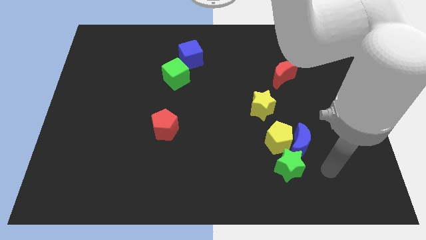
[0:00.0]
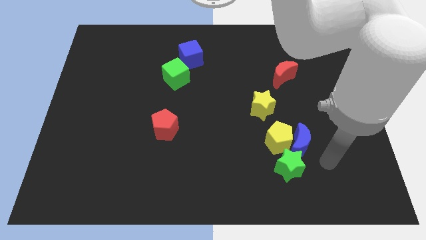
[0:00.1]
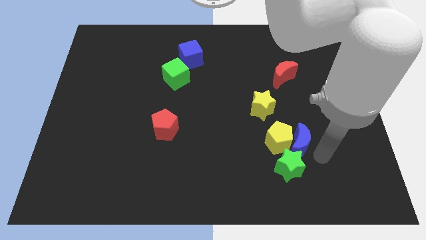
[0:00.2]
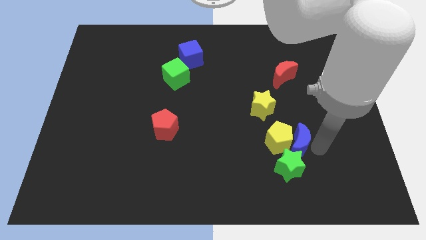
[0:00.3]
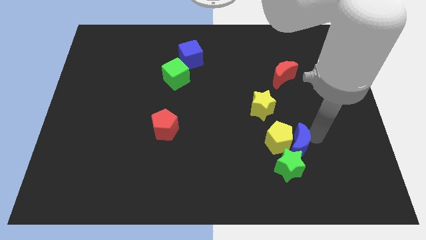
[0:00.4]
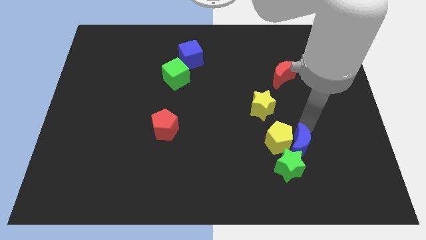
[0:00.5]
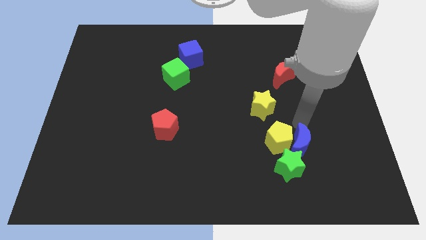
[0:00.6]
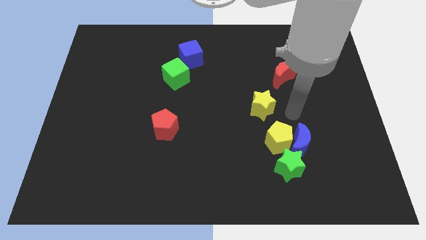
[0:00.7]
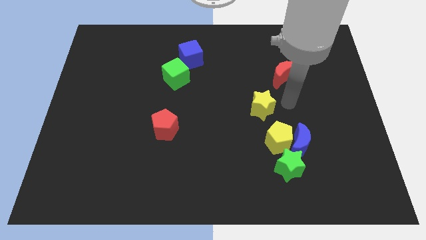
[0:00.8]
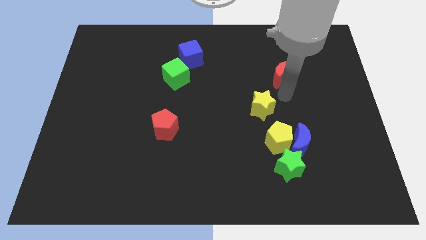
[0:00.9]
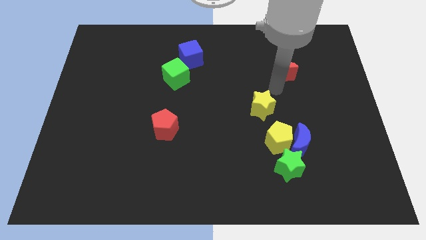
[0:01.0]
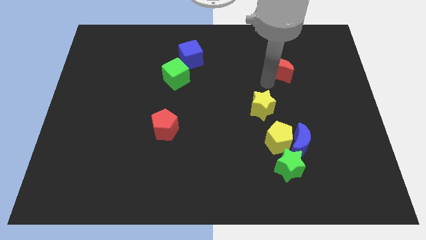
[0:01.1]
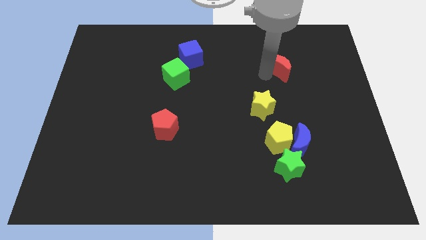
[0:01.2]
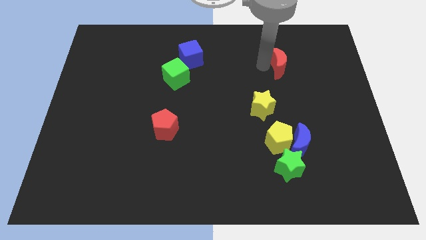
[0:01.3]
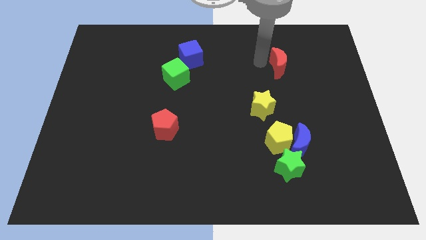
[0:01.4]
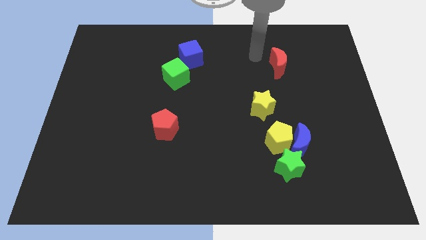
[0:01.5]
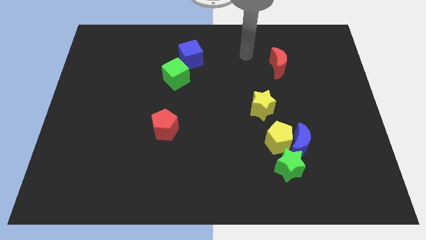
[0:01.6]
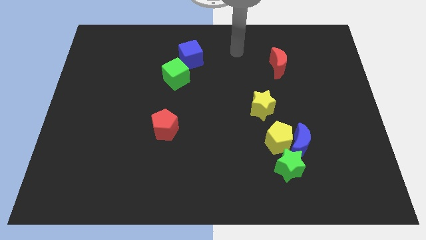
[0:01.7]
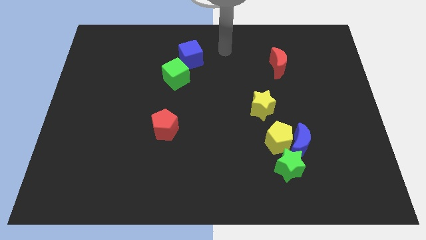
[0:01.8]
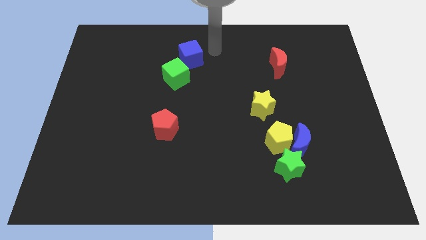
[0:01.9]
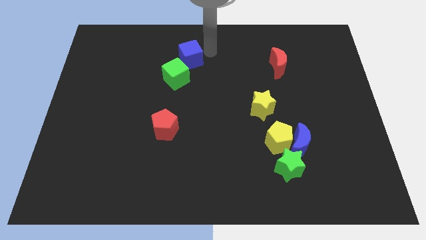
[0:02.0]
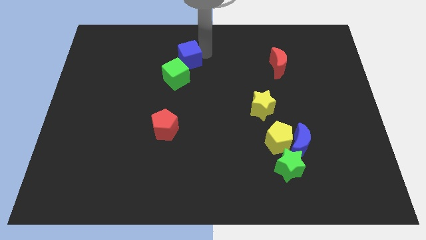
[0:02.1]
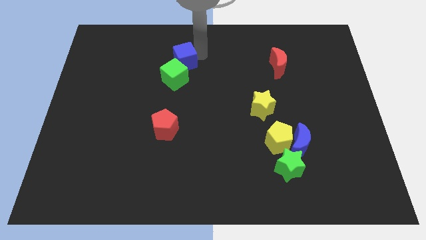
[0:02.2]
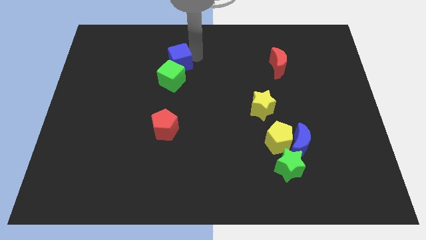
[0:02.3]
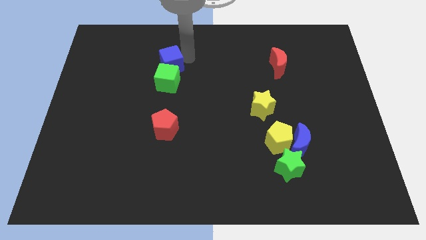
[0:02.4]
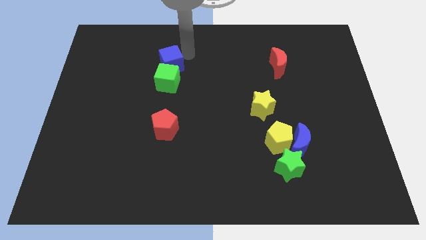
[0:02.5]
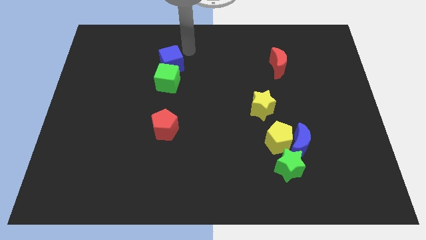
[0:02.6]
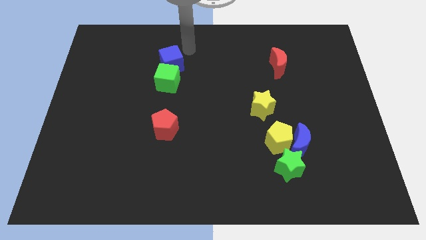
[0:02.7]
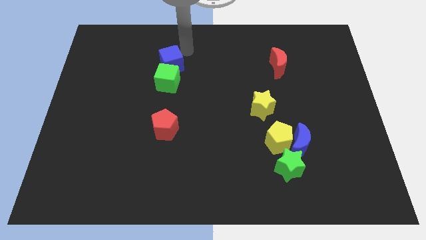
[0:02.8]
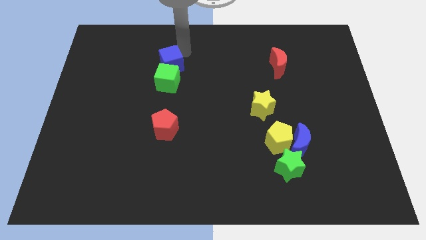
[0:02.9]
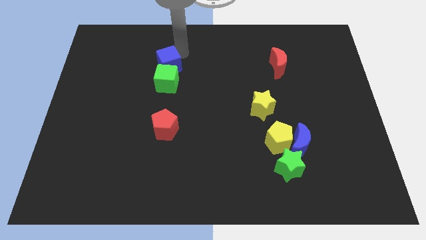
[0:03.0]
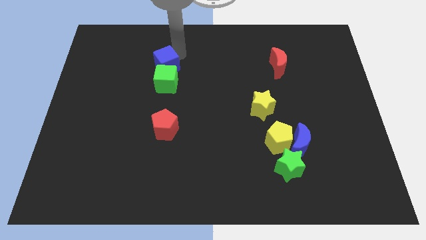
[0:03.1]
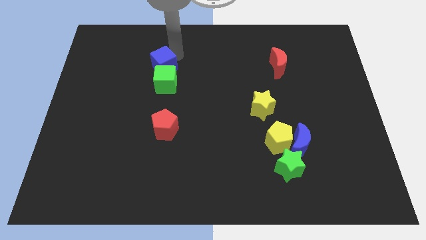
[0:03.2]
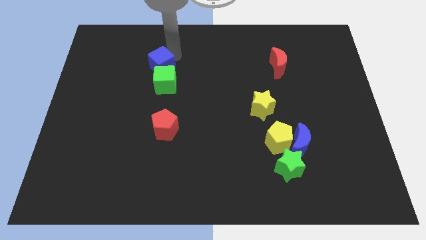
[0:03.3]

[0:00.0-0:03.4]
slide the blue cube down and then left somewhat

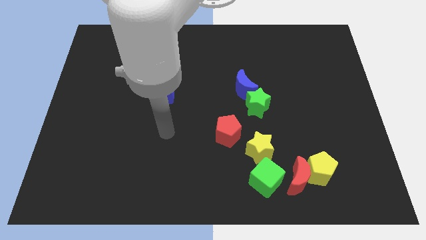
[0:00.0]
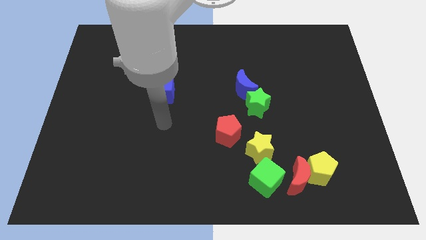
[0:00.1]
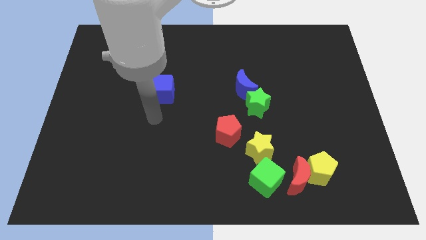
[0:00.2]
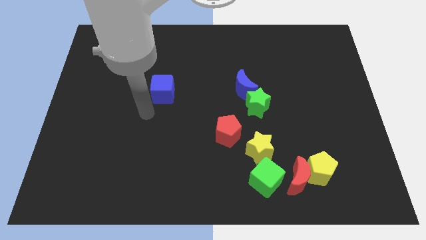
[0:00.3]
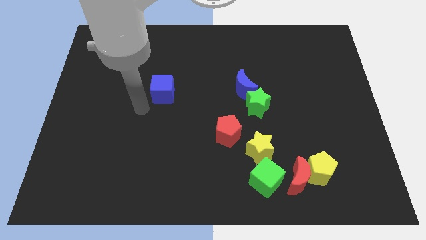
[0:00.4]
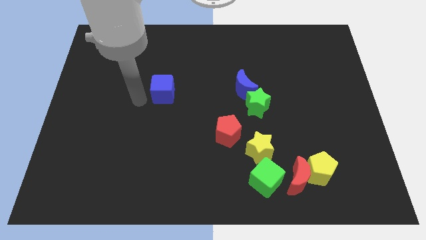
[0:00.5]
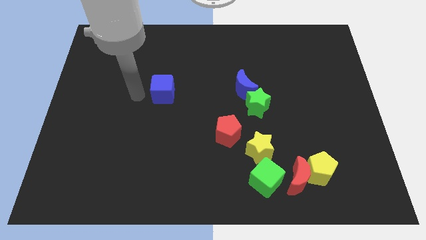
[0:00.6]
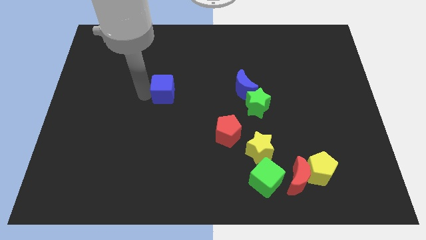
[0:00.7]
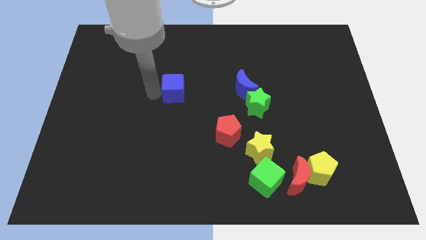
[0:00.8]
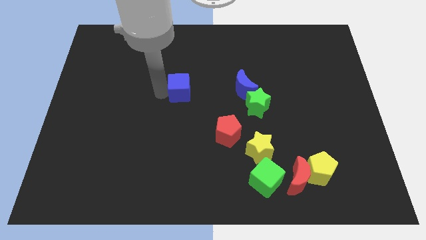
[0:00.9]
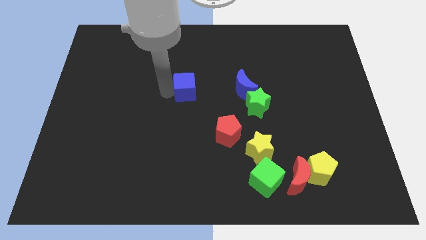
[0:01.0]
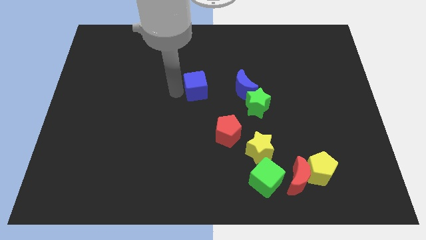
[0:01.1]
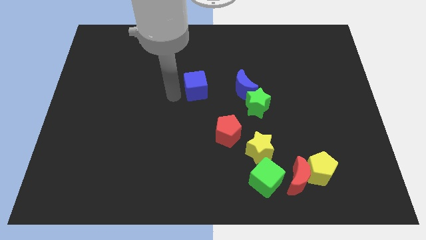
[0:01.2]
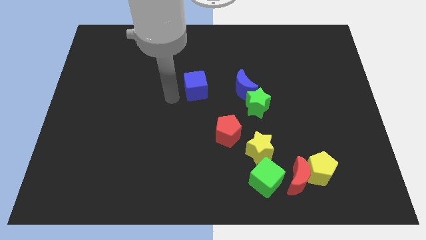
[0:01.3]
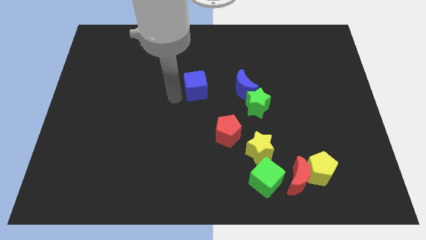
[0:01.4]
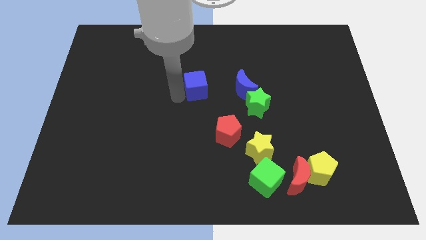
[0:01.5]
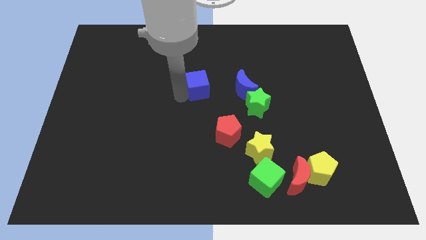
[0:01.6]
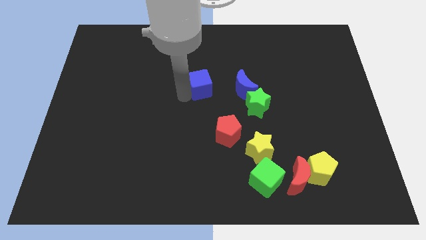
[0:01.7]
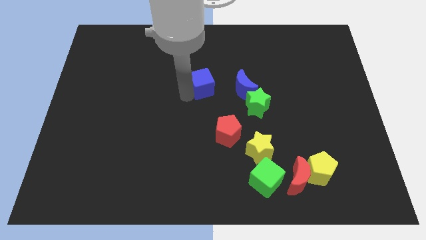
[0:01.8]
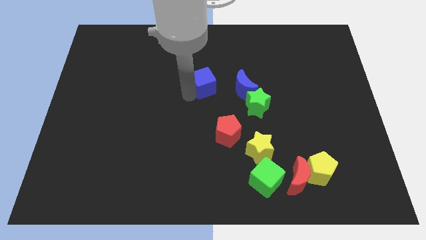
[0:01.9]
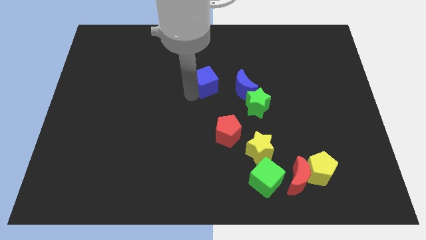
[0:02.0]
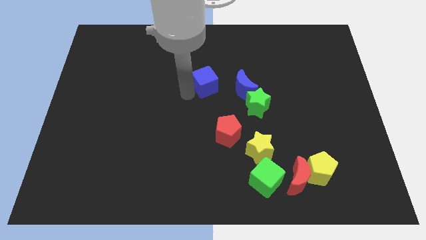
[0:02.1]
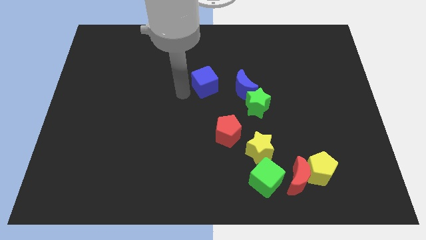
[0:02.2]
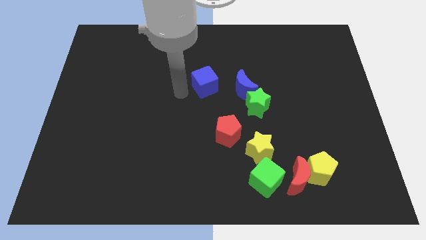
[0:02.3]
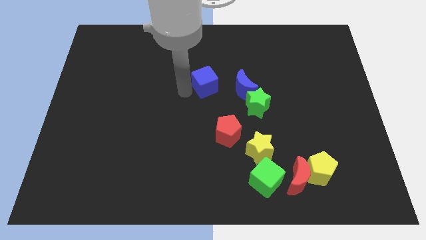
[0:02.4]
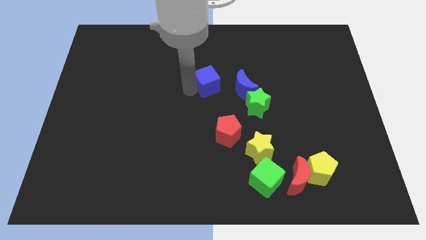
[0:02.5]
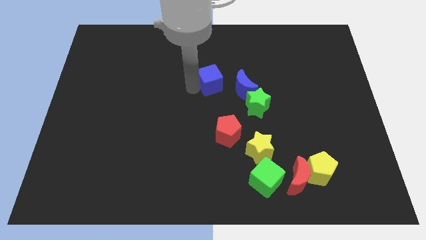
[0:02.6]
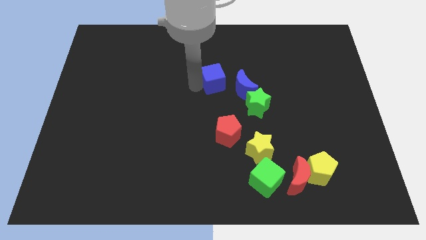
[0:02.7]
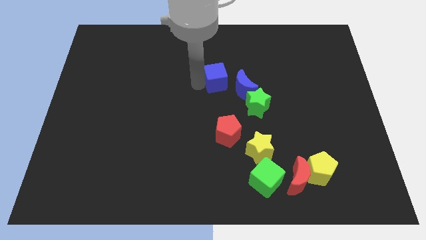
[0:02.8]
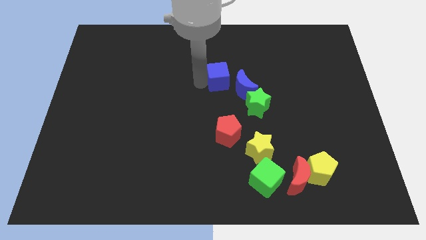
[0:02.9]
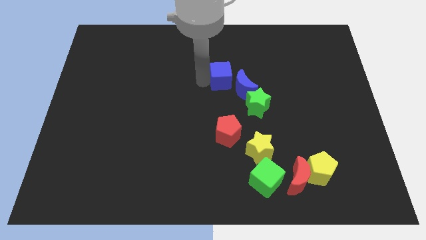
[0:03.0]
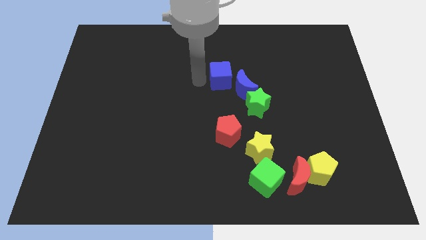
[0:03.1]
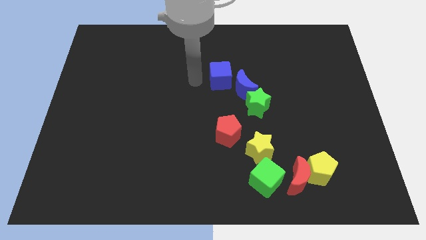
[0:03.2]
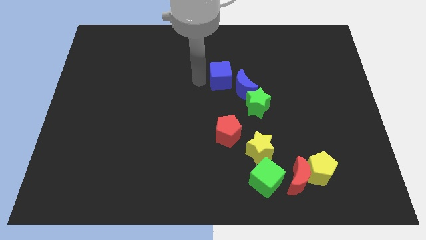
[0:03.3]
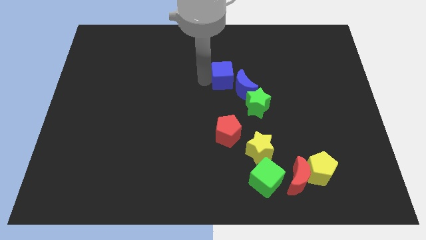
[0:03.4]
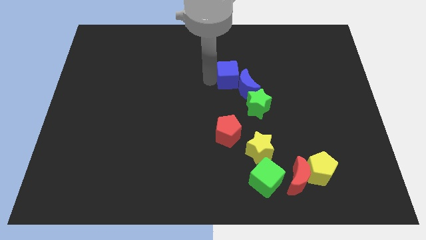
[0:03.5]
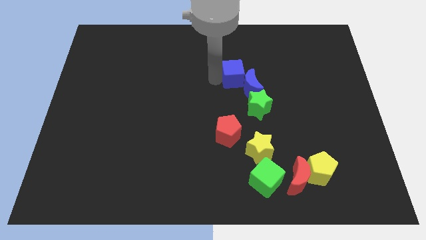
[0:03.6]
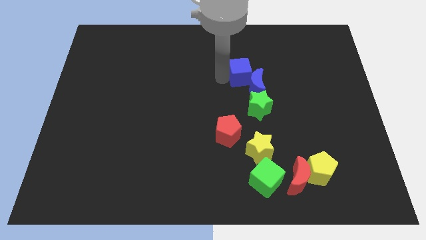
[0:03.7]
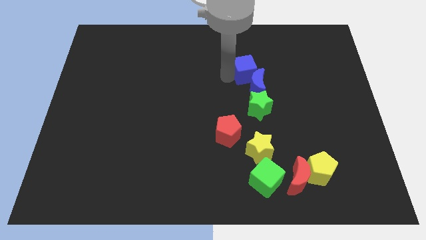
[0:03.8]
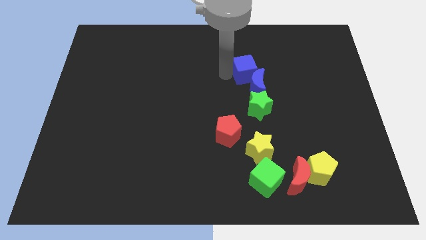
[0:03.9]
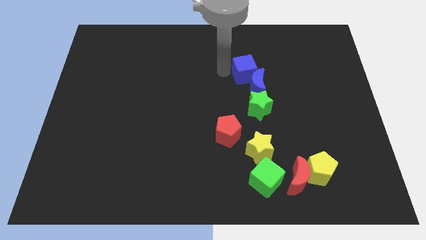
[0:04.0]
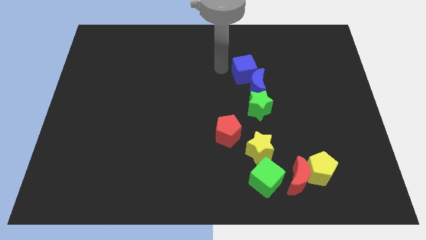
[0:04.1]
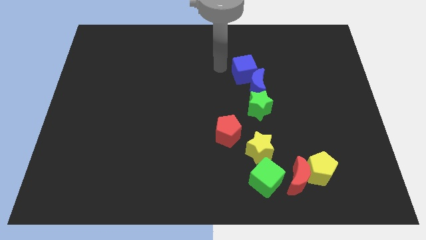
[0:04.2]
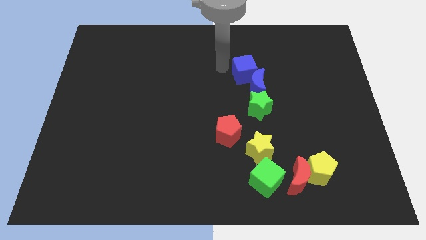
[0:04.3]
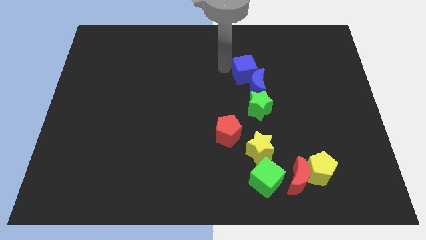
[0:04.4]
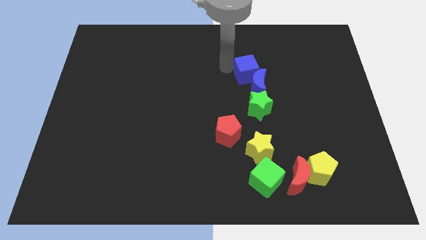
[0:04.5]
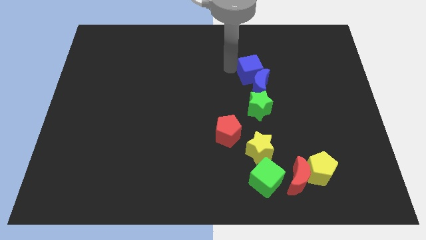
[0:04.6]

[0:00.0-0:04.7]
slide the blue cube to the right

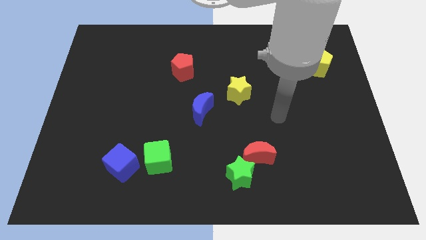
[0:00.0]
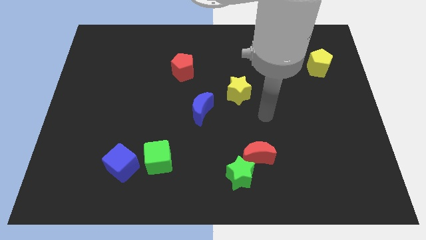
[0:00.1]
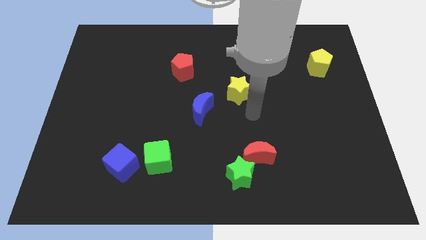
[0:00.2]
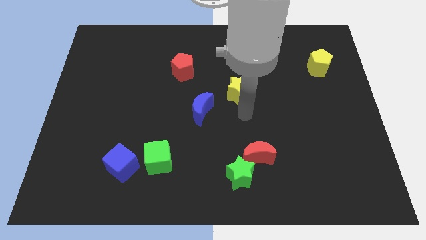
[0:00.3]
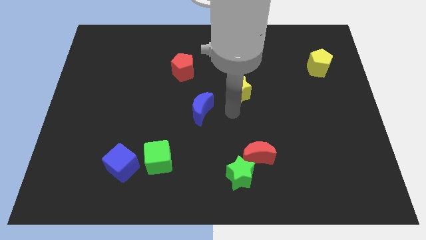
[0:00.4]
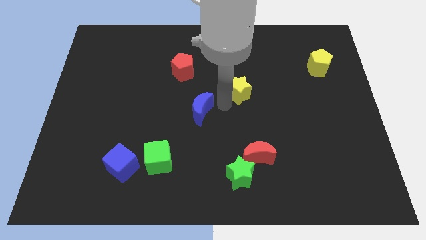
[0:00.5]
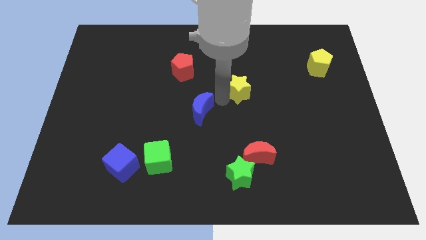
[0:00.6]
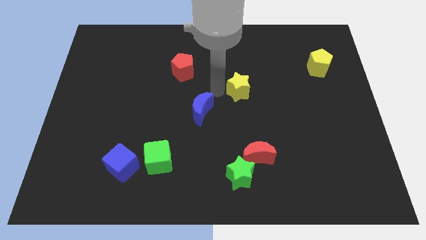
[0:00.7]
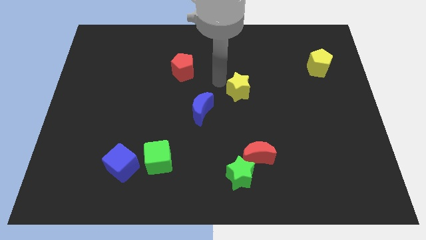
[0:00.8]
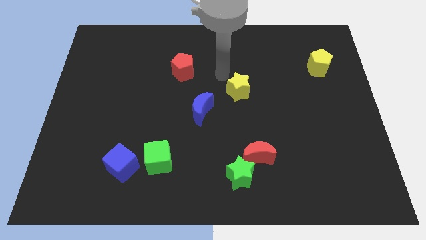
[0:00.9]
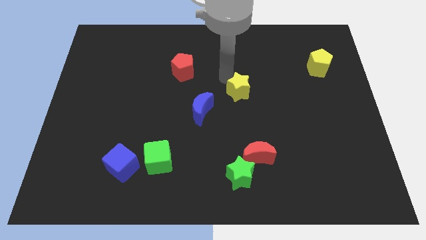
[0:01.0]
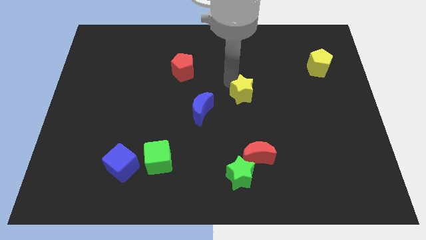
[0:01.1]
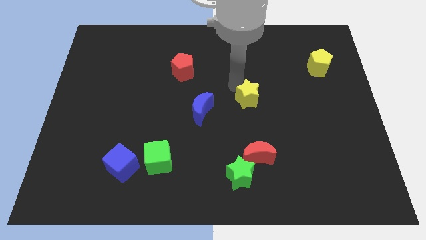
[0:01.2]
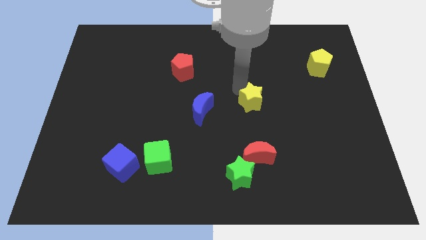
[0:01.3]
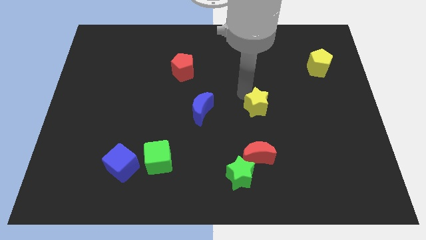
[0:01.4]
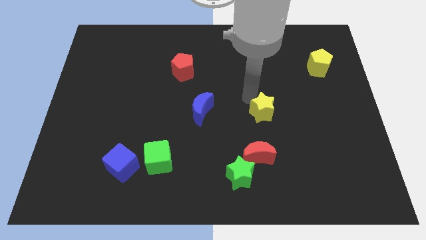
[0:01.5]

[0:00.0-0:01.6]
slide the yellow star slightly down and to the right diagonally
